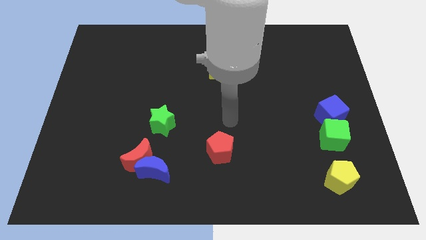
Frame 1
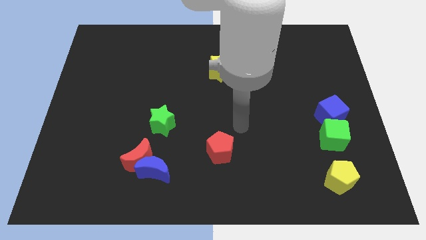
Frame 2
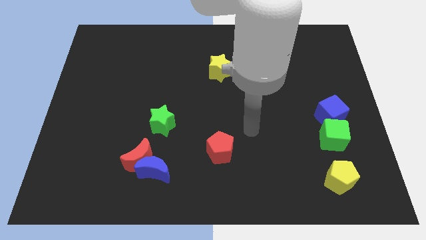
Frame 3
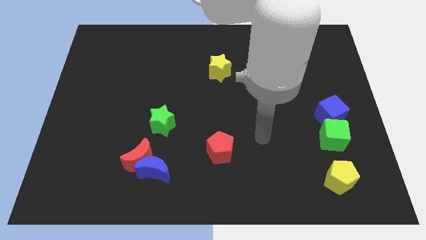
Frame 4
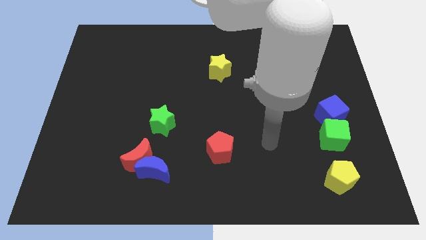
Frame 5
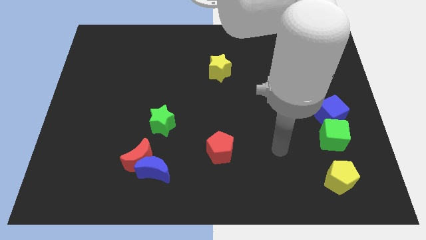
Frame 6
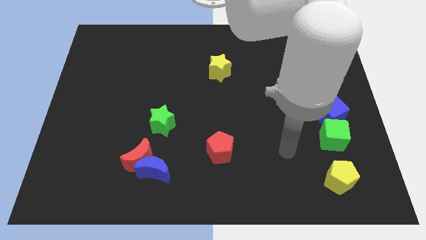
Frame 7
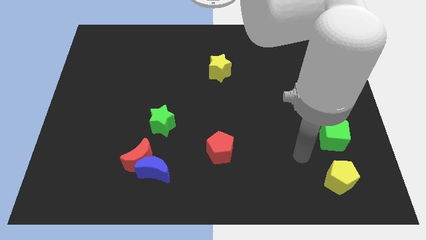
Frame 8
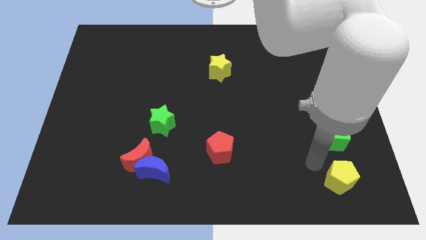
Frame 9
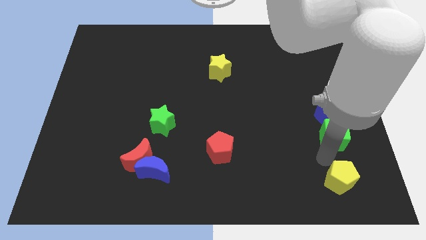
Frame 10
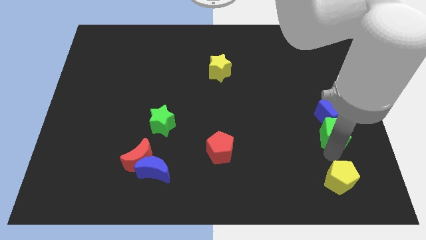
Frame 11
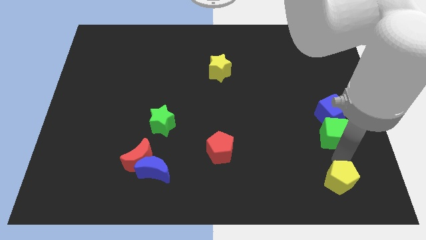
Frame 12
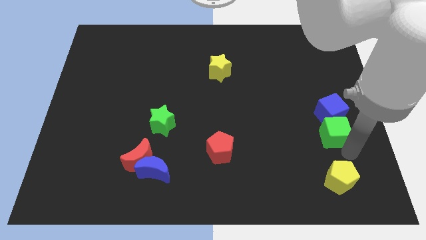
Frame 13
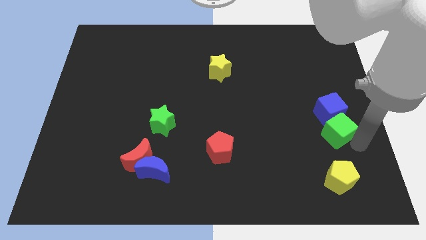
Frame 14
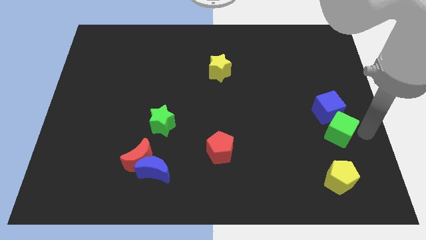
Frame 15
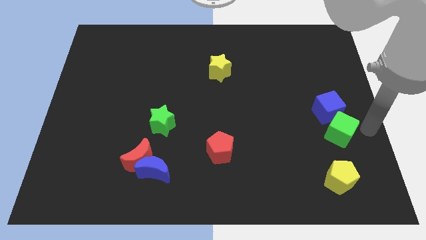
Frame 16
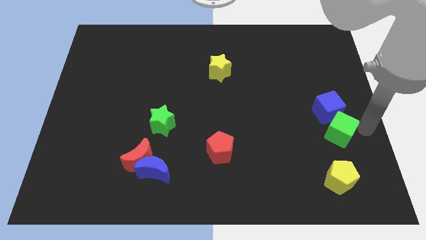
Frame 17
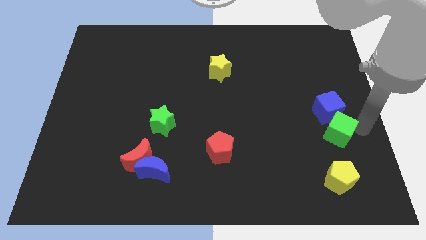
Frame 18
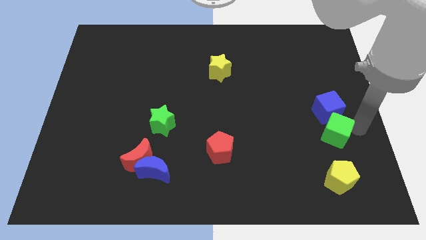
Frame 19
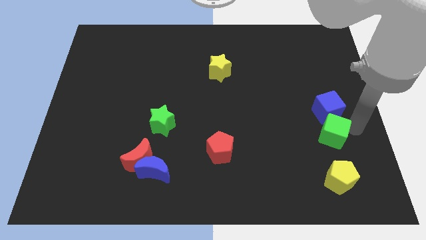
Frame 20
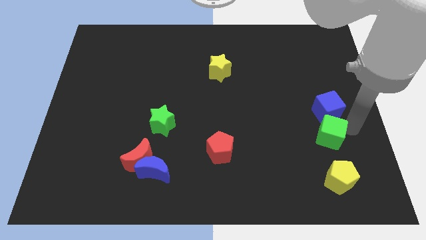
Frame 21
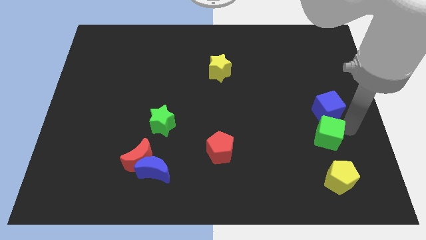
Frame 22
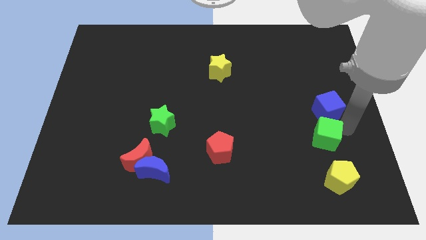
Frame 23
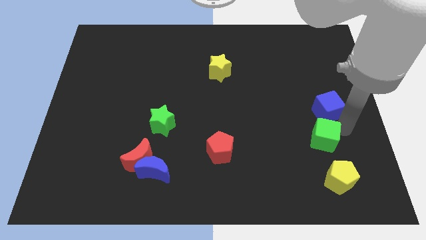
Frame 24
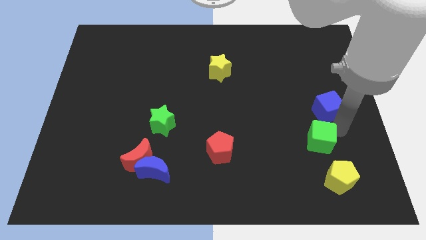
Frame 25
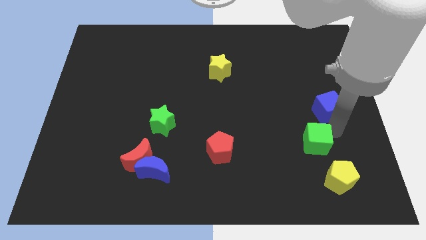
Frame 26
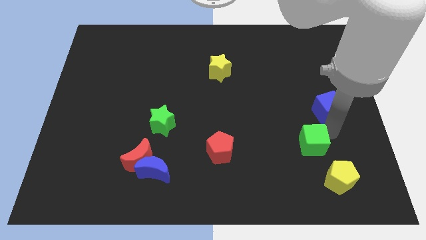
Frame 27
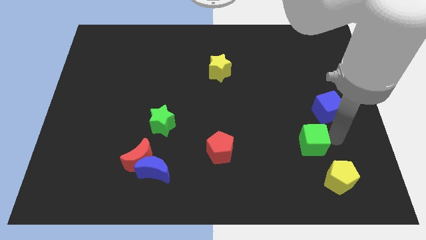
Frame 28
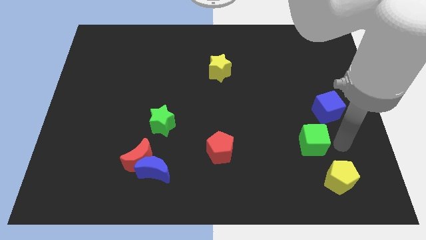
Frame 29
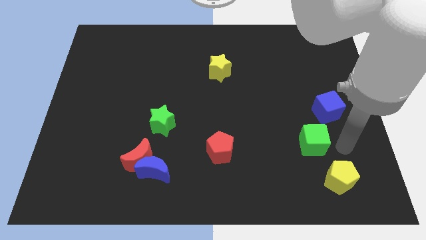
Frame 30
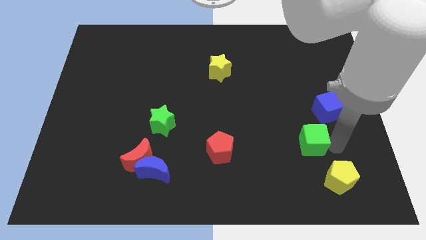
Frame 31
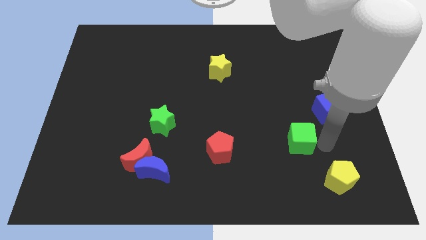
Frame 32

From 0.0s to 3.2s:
push the green cube a little bit to the left

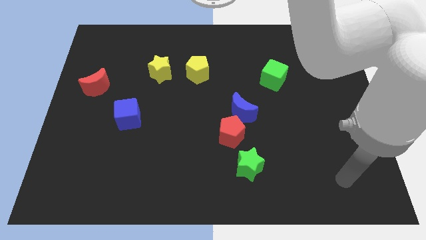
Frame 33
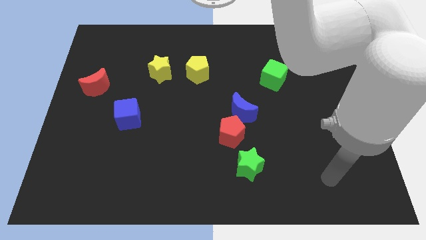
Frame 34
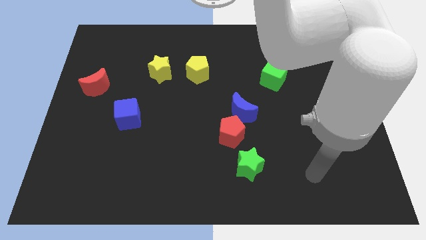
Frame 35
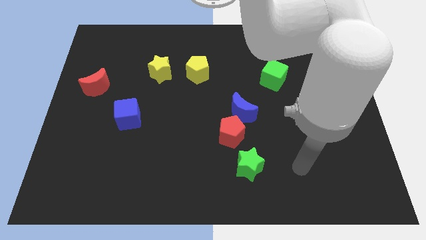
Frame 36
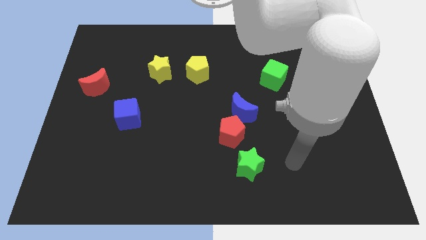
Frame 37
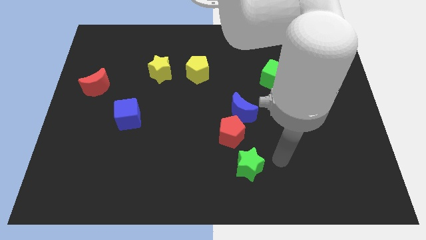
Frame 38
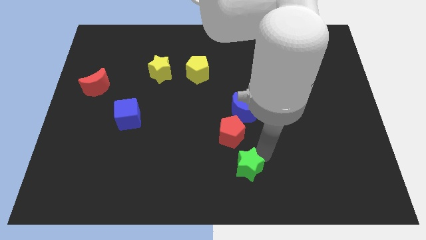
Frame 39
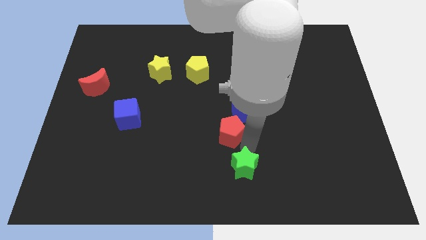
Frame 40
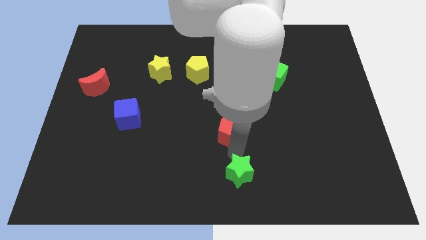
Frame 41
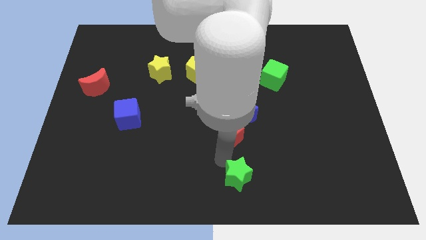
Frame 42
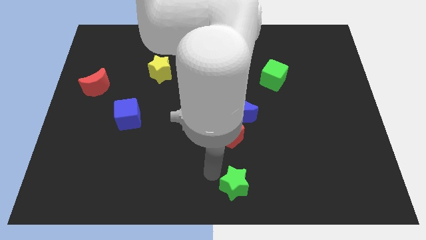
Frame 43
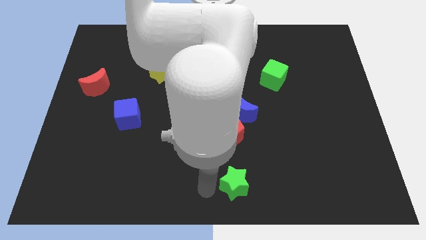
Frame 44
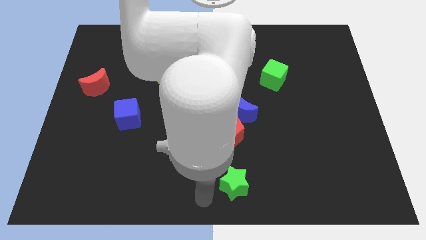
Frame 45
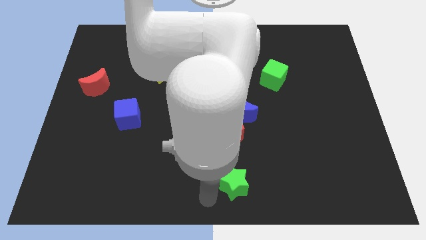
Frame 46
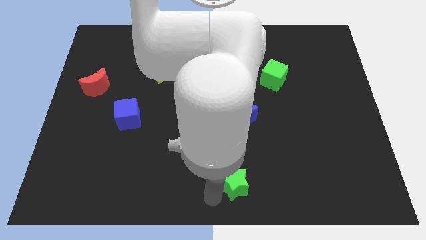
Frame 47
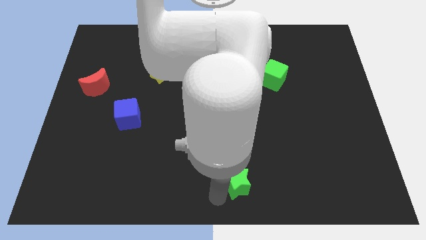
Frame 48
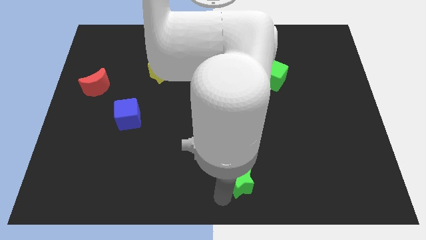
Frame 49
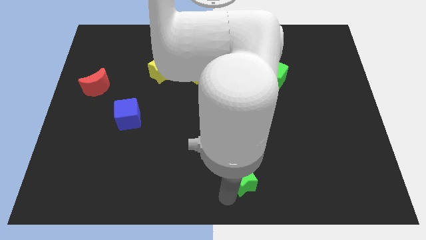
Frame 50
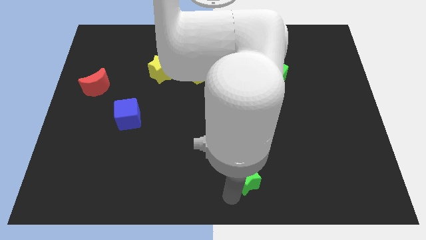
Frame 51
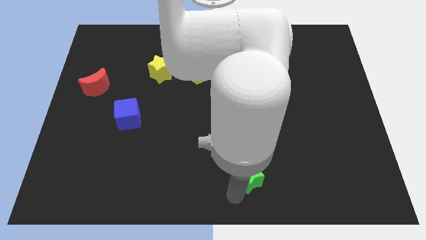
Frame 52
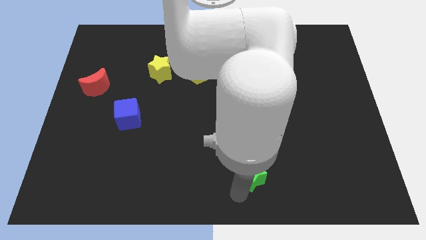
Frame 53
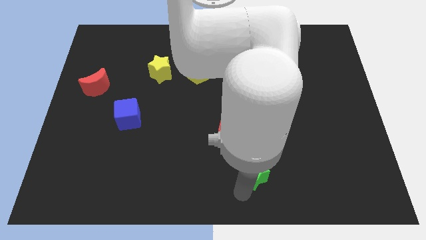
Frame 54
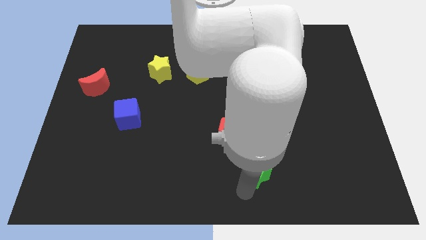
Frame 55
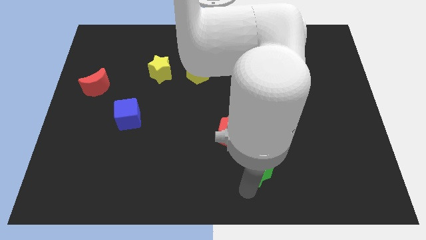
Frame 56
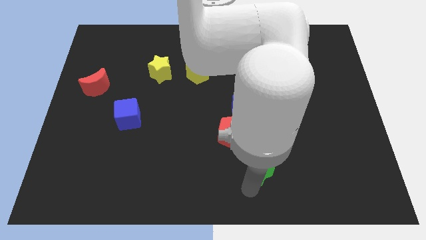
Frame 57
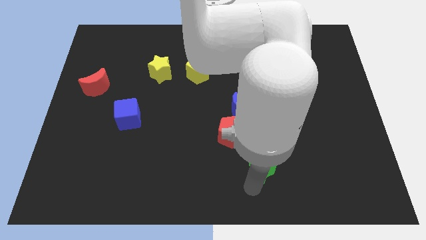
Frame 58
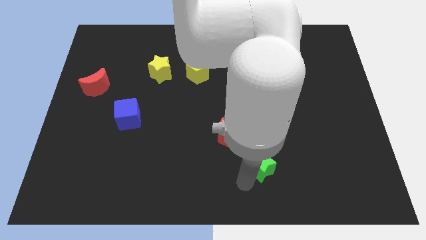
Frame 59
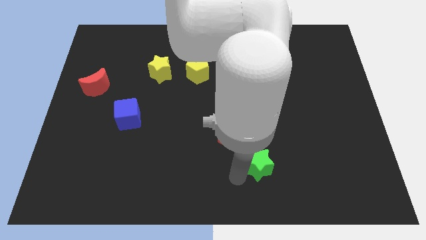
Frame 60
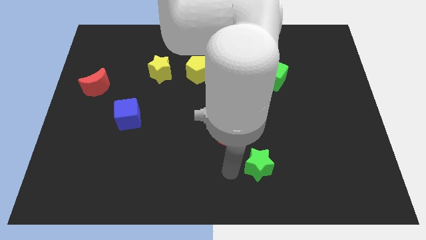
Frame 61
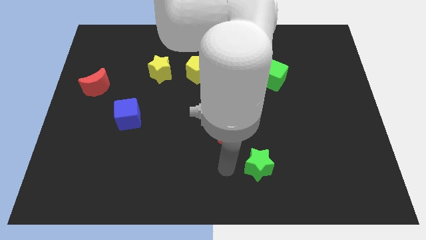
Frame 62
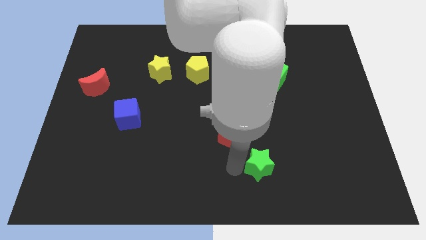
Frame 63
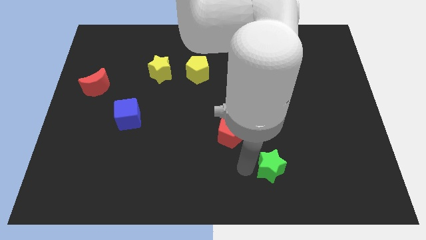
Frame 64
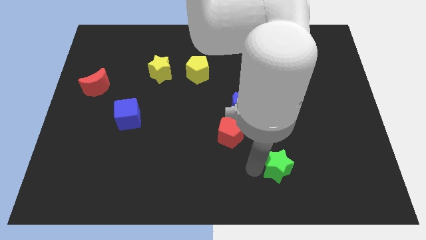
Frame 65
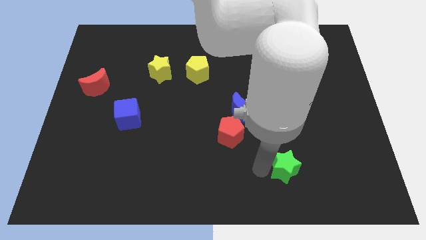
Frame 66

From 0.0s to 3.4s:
push the green star right a little bit

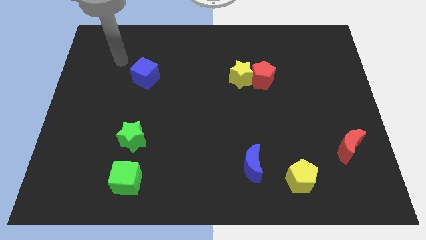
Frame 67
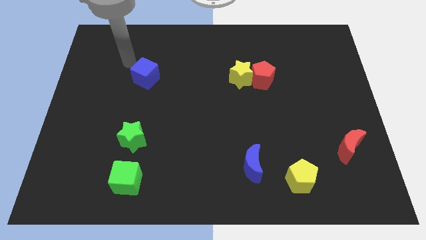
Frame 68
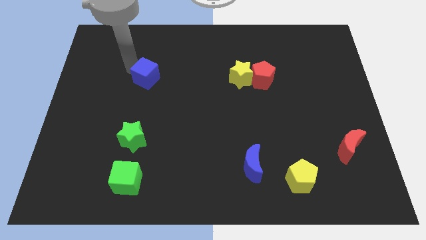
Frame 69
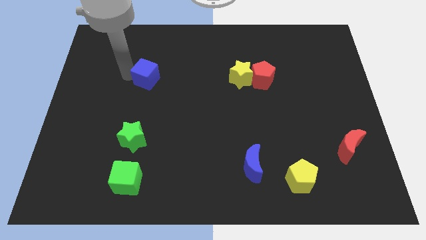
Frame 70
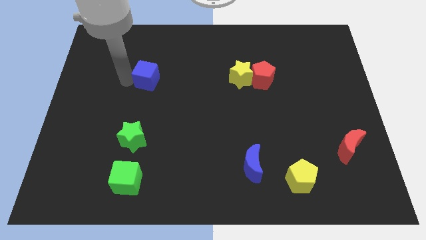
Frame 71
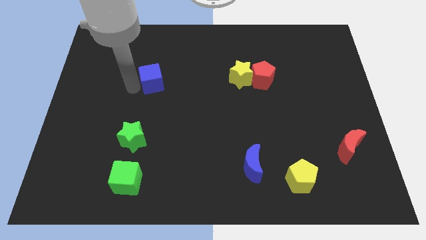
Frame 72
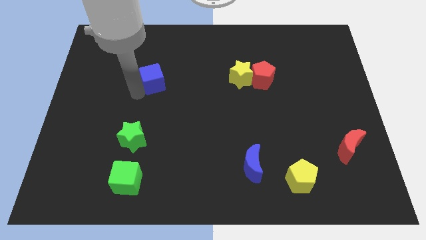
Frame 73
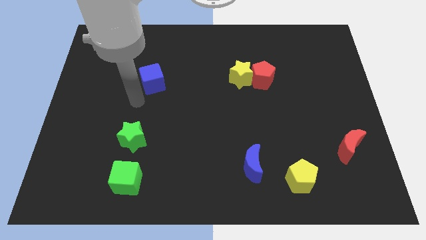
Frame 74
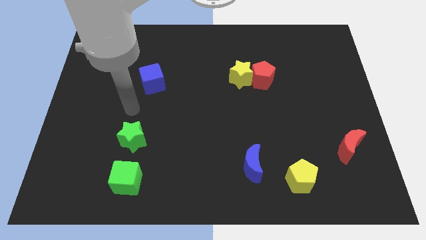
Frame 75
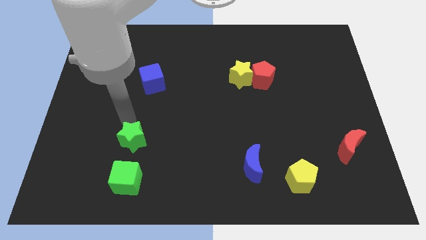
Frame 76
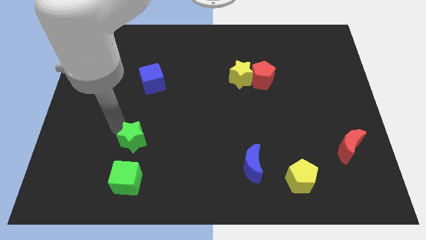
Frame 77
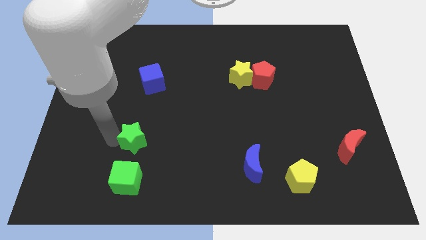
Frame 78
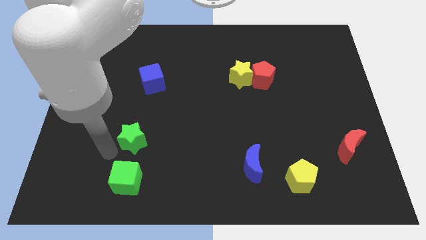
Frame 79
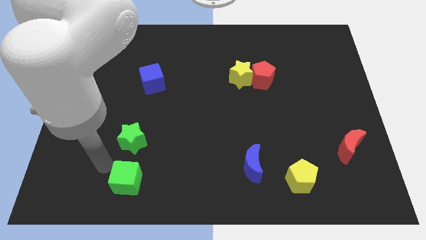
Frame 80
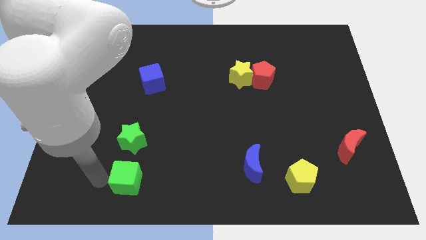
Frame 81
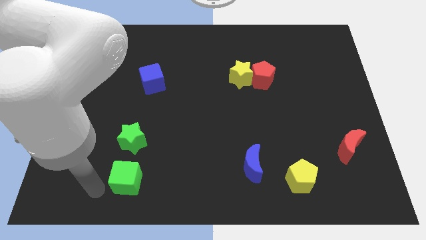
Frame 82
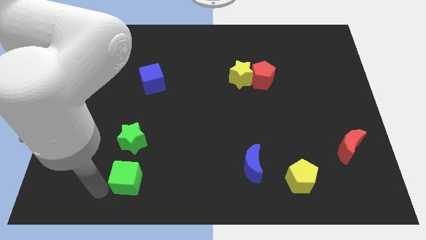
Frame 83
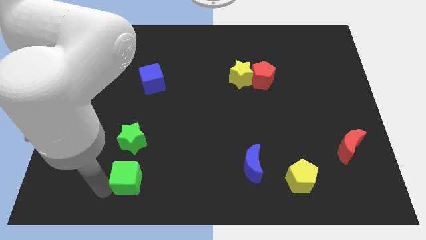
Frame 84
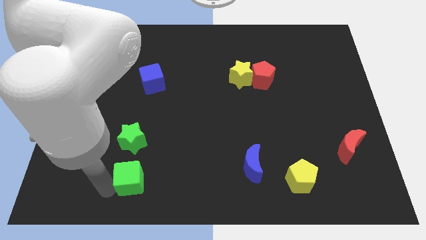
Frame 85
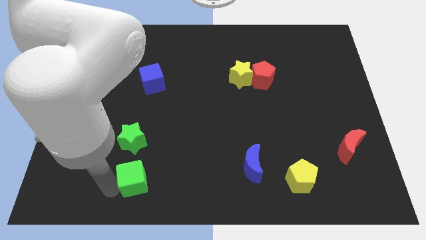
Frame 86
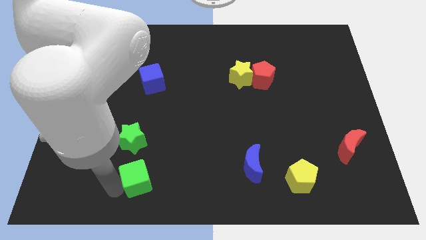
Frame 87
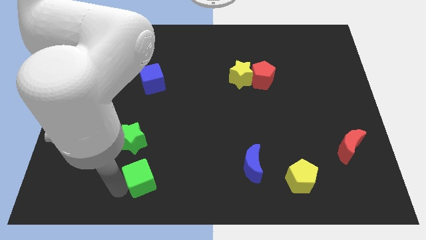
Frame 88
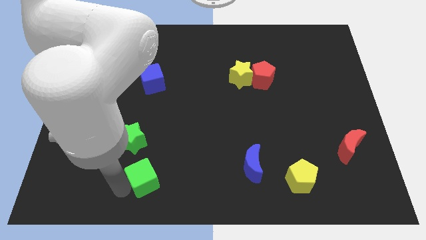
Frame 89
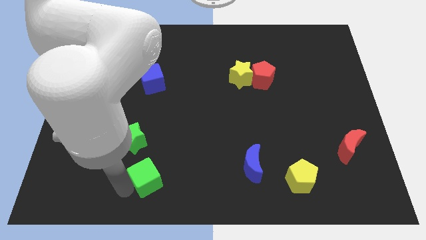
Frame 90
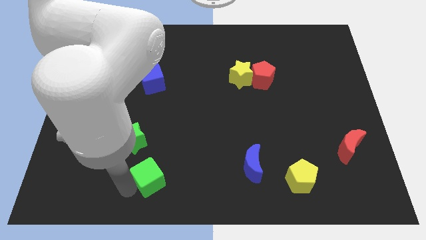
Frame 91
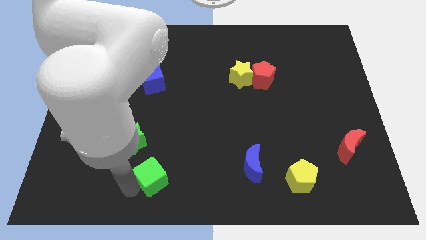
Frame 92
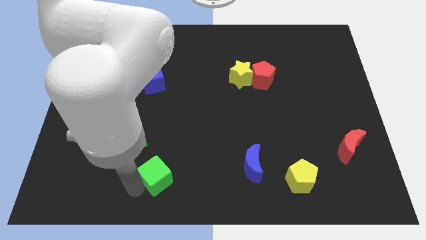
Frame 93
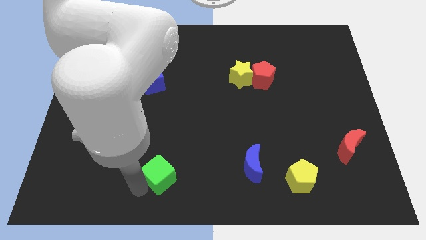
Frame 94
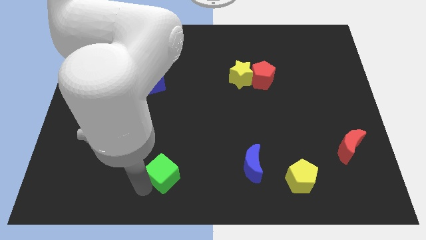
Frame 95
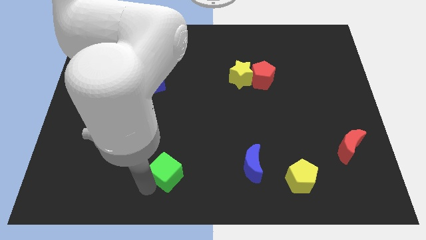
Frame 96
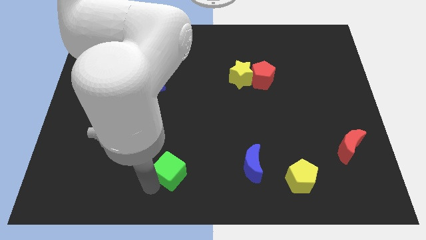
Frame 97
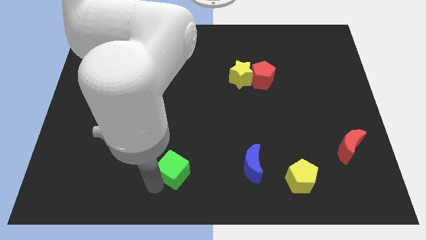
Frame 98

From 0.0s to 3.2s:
push the green cube up and to the right a little
